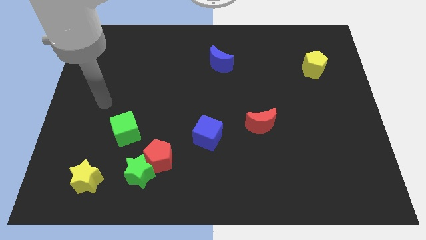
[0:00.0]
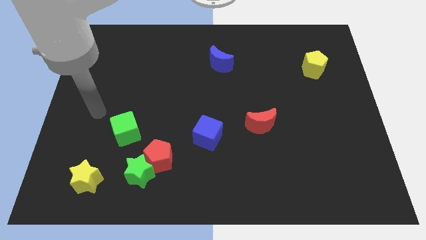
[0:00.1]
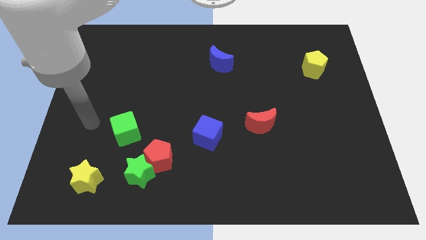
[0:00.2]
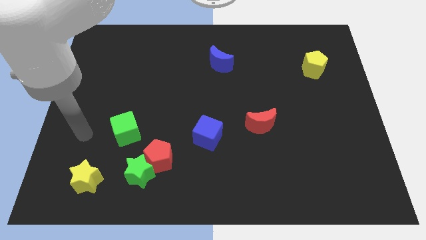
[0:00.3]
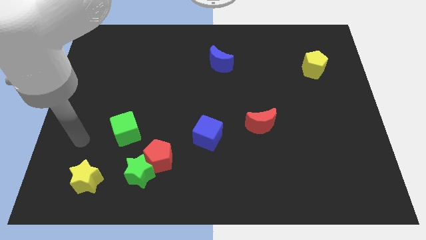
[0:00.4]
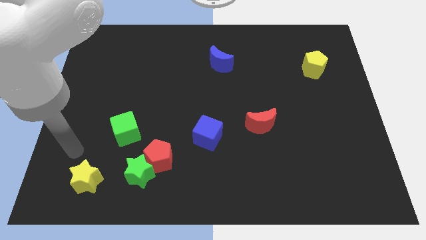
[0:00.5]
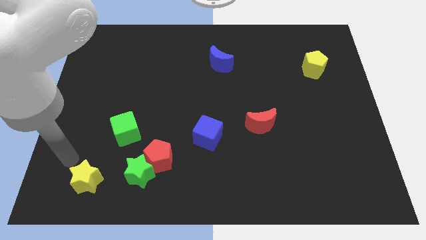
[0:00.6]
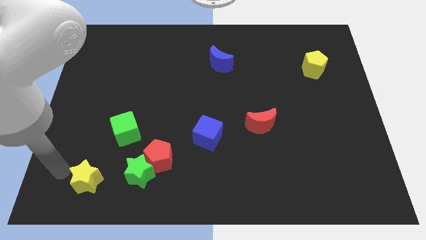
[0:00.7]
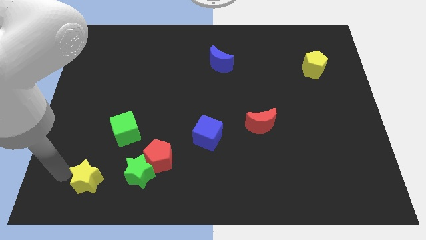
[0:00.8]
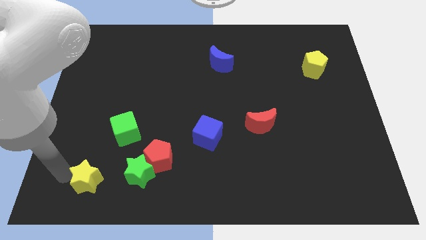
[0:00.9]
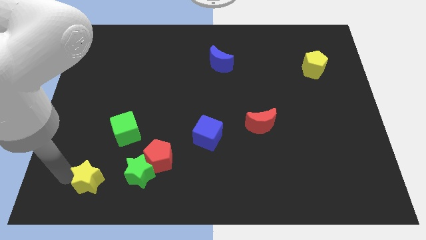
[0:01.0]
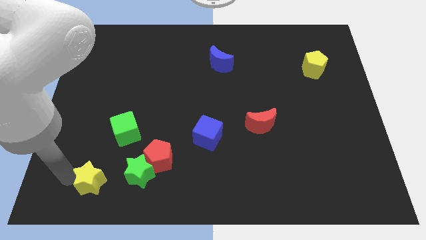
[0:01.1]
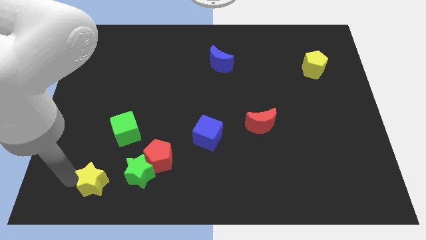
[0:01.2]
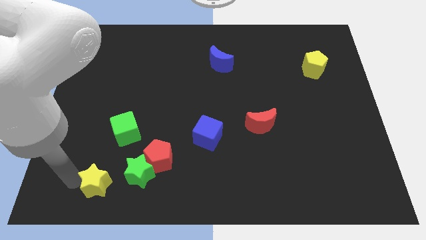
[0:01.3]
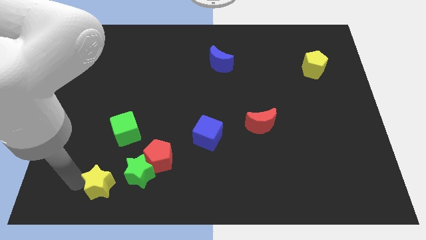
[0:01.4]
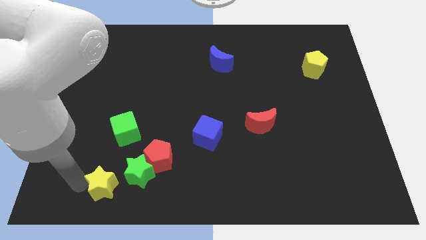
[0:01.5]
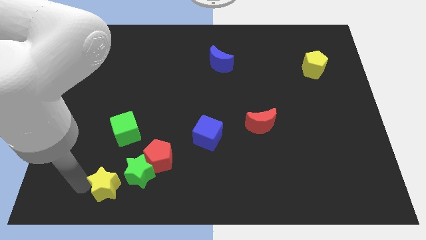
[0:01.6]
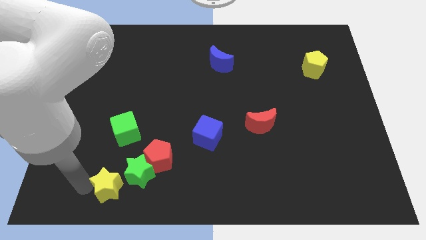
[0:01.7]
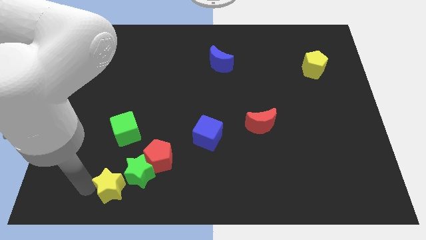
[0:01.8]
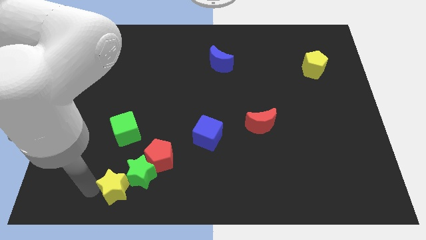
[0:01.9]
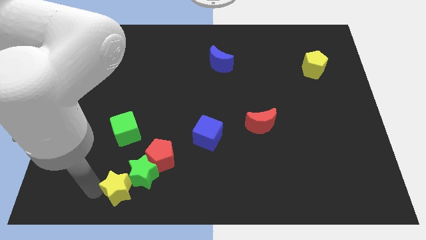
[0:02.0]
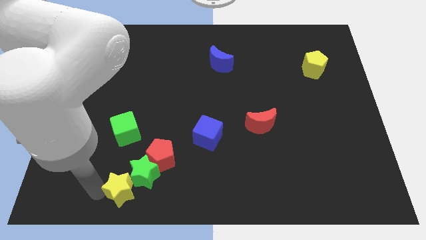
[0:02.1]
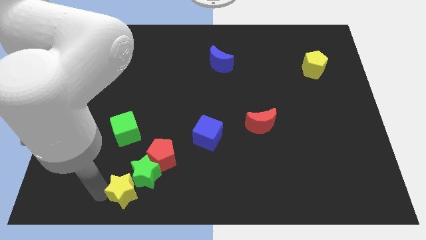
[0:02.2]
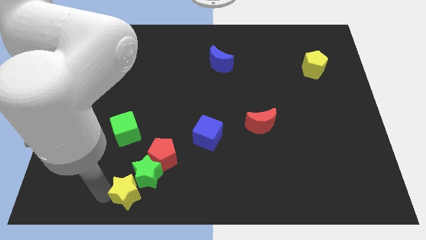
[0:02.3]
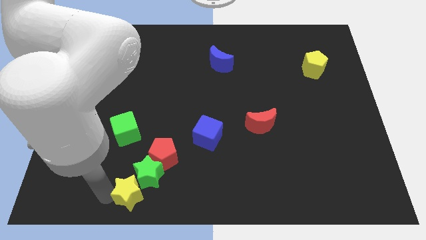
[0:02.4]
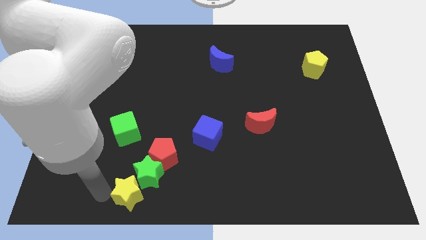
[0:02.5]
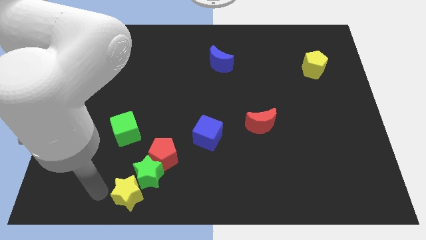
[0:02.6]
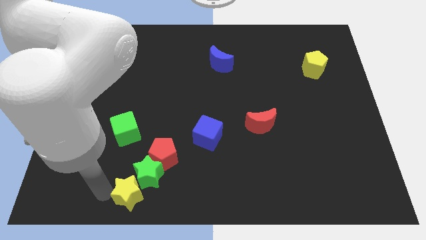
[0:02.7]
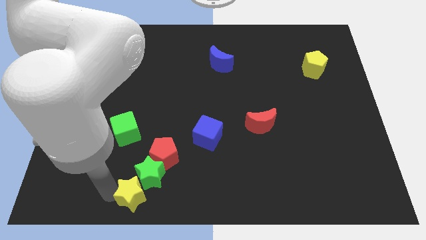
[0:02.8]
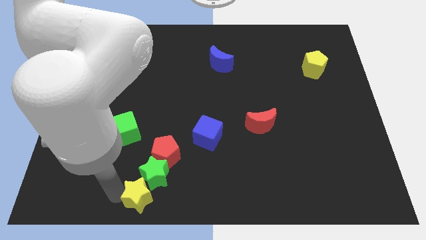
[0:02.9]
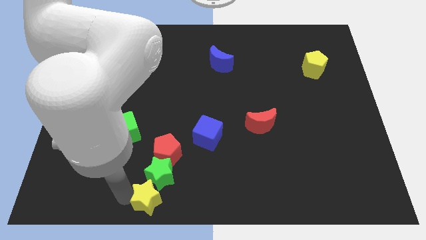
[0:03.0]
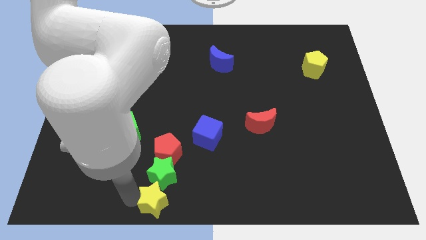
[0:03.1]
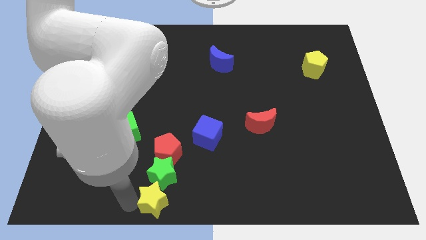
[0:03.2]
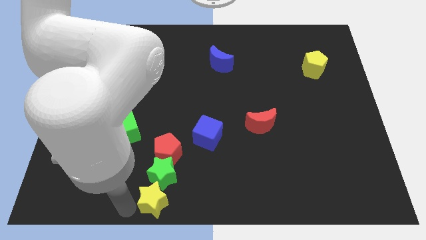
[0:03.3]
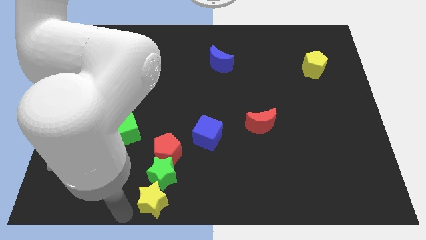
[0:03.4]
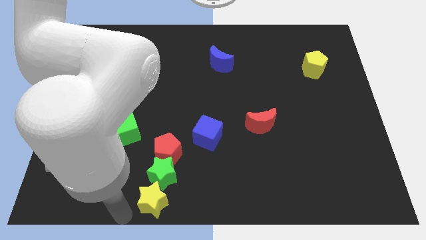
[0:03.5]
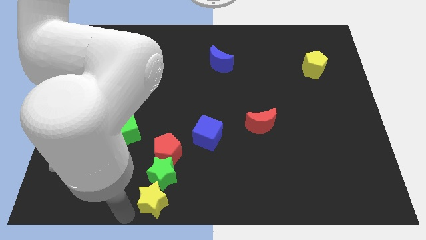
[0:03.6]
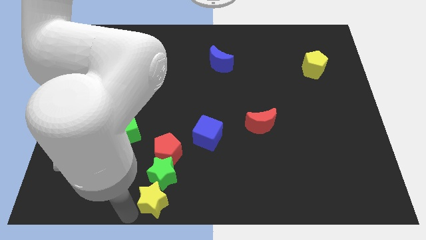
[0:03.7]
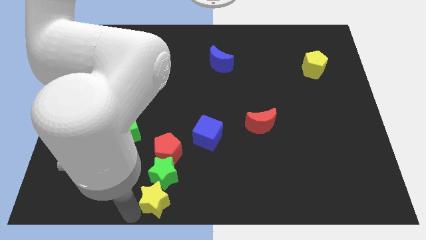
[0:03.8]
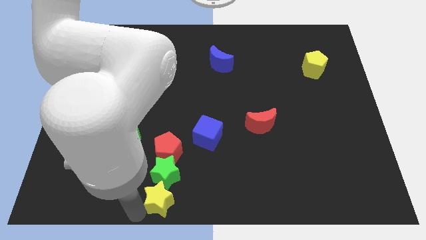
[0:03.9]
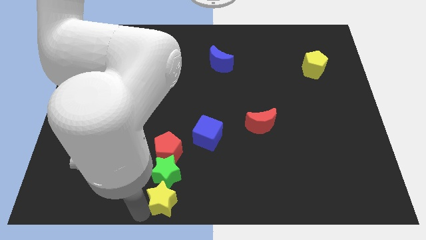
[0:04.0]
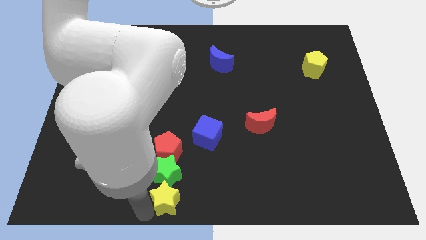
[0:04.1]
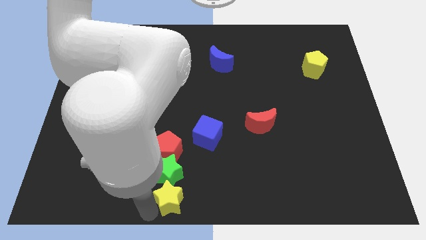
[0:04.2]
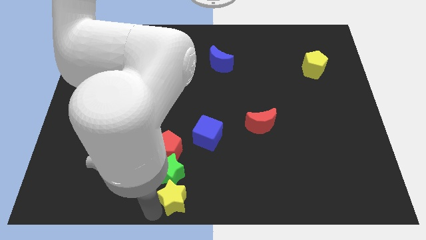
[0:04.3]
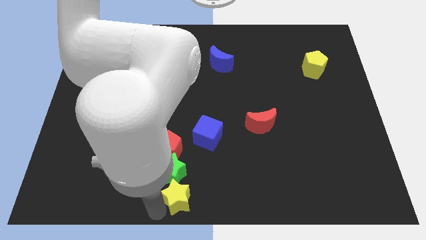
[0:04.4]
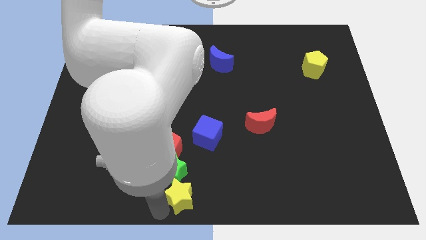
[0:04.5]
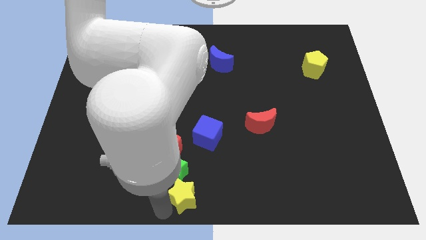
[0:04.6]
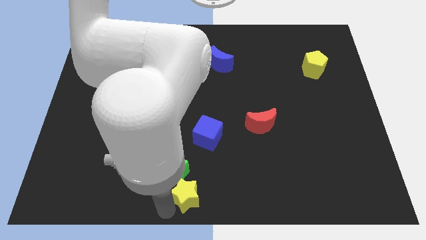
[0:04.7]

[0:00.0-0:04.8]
slide the yellow star to the right

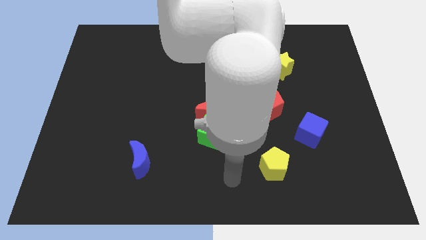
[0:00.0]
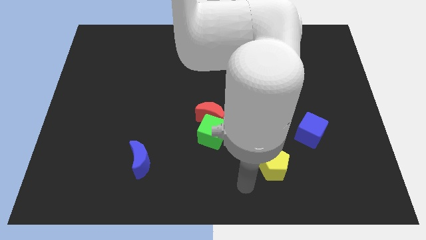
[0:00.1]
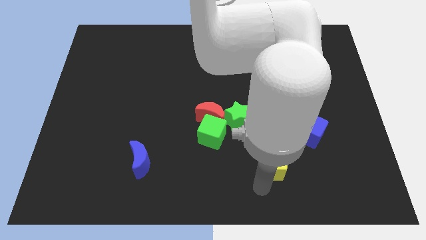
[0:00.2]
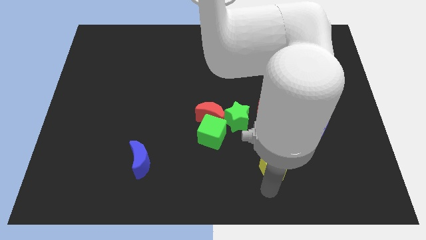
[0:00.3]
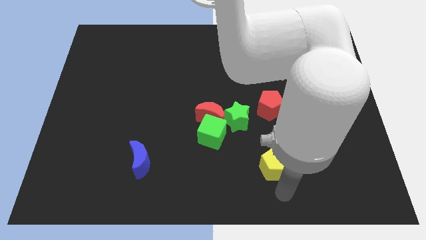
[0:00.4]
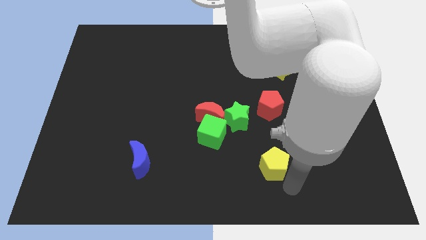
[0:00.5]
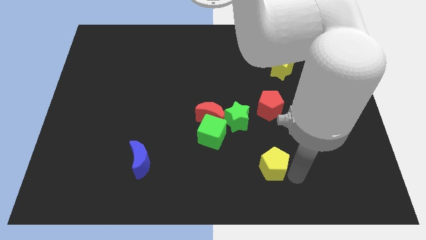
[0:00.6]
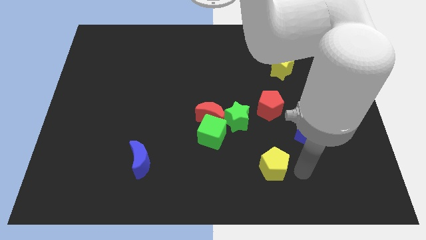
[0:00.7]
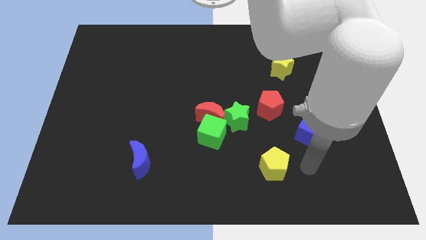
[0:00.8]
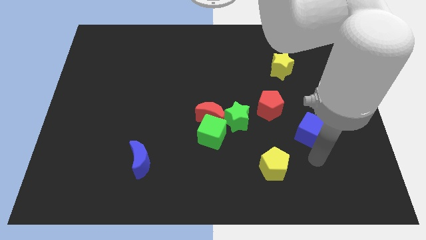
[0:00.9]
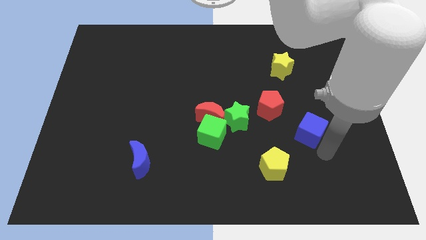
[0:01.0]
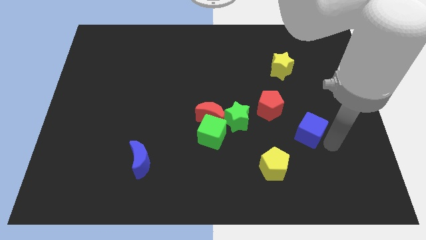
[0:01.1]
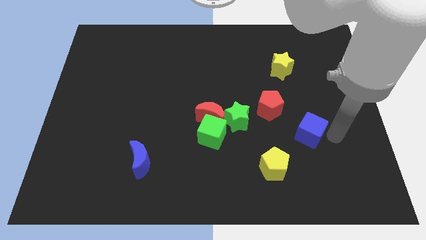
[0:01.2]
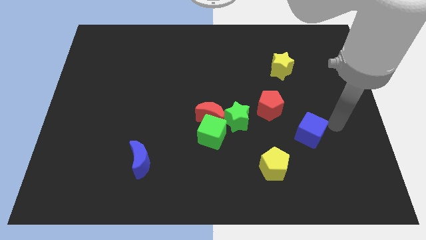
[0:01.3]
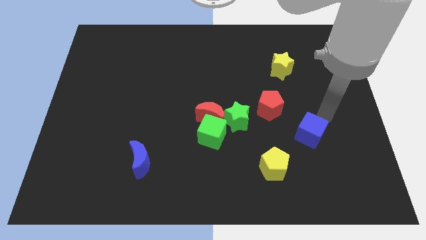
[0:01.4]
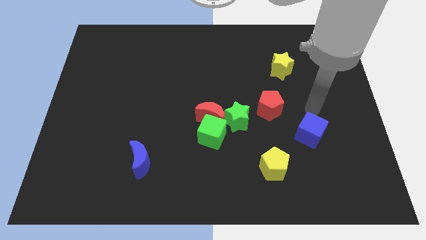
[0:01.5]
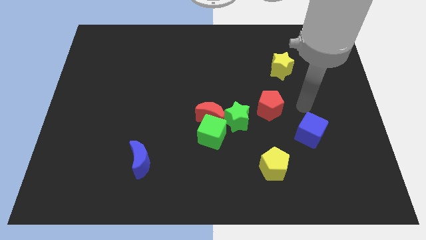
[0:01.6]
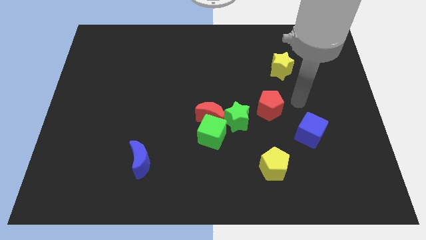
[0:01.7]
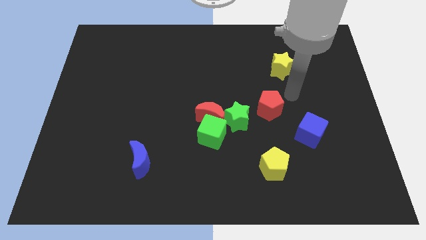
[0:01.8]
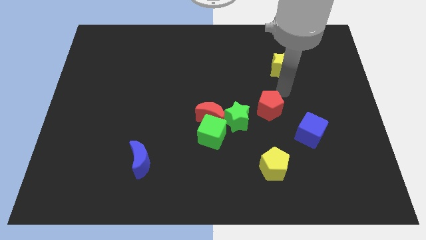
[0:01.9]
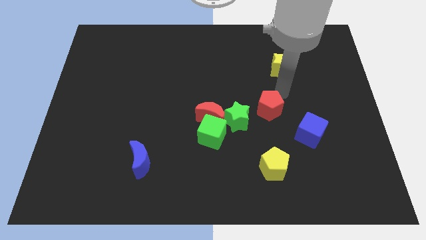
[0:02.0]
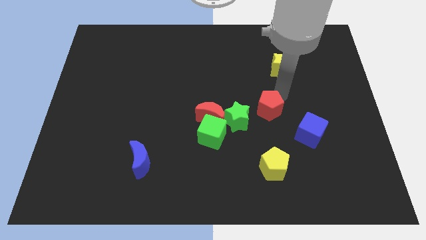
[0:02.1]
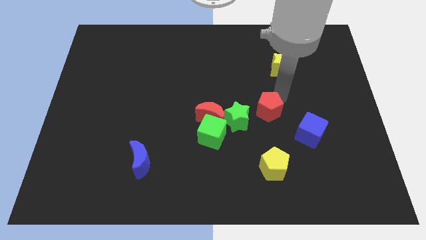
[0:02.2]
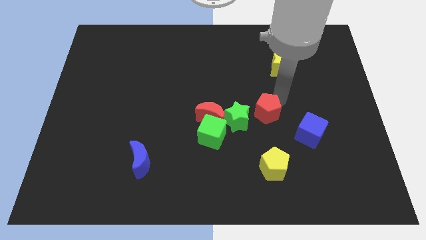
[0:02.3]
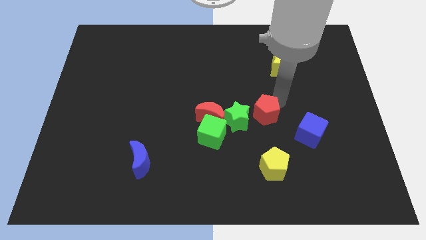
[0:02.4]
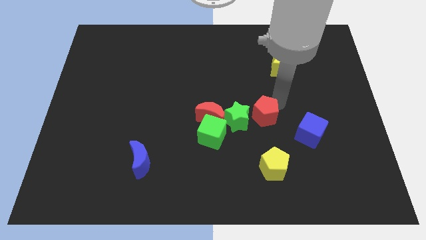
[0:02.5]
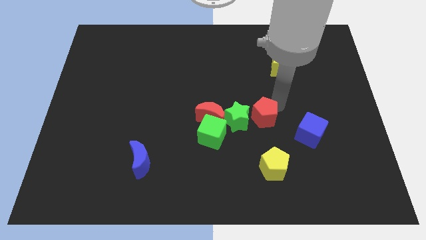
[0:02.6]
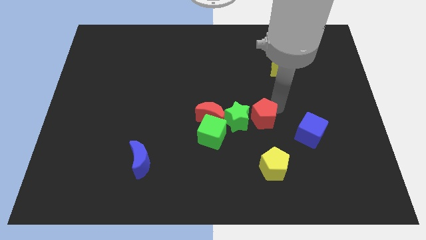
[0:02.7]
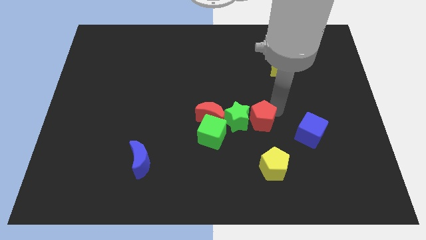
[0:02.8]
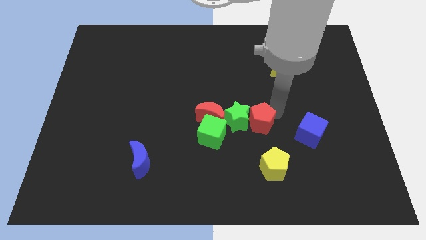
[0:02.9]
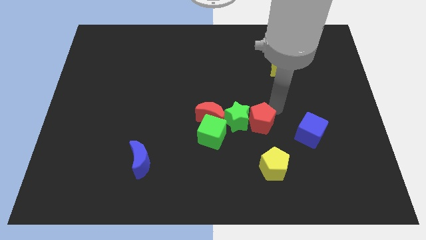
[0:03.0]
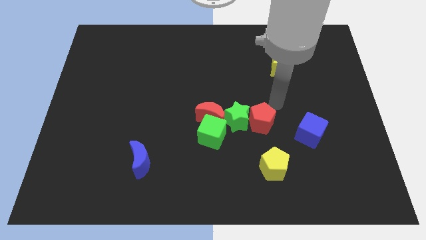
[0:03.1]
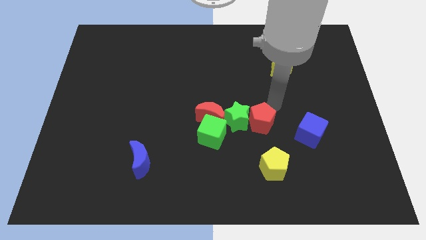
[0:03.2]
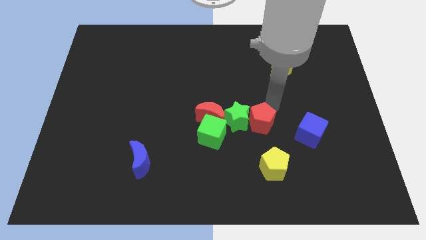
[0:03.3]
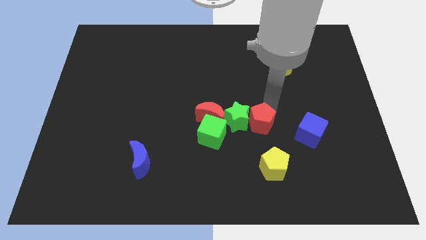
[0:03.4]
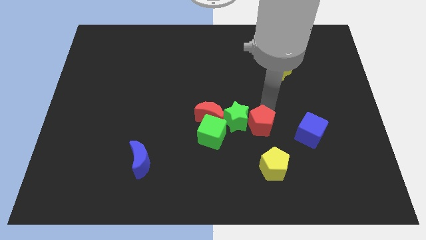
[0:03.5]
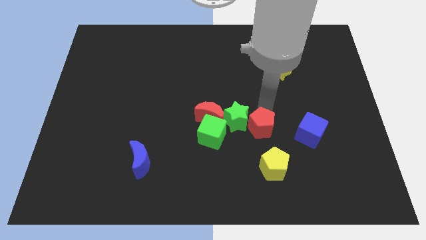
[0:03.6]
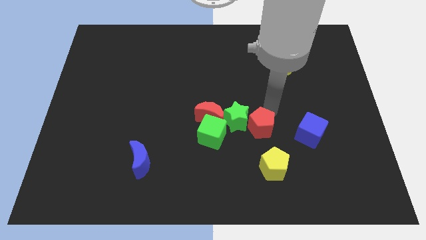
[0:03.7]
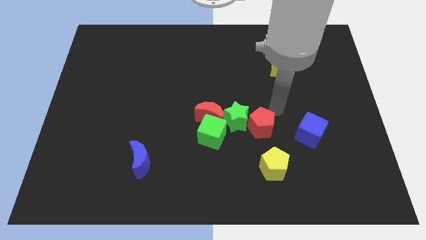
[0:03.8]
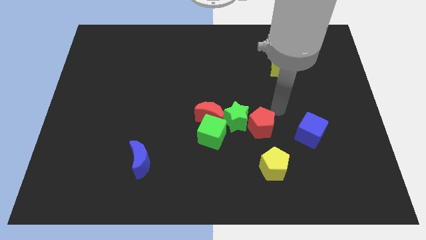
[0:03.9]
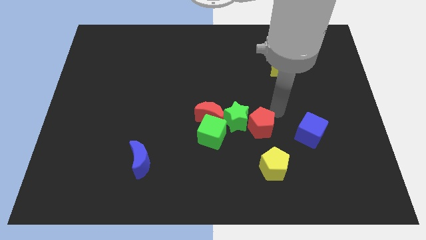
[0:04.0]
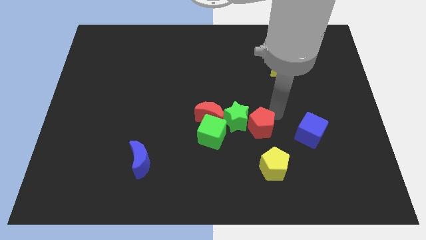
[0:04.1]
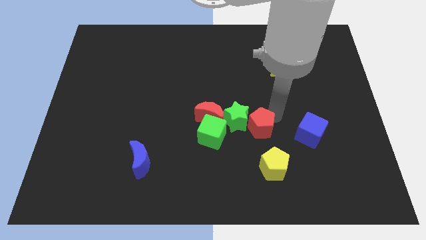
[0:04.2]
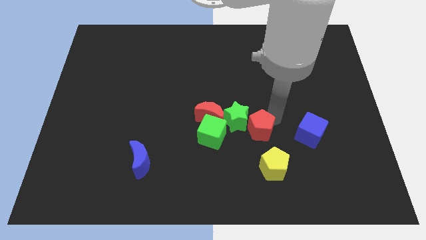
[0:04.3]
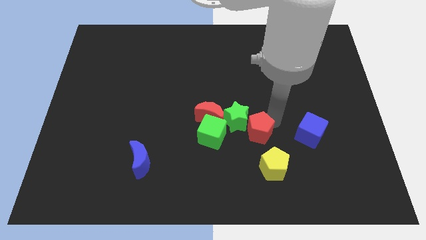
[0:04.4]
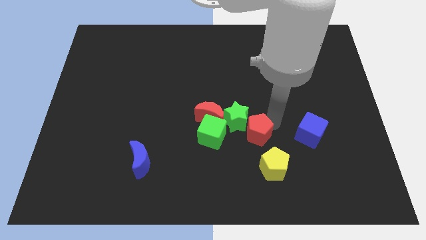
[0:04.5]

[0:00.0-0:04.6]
slide the red pentagon downwards and to the left diagonally a little
